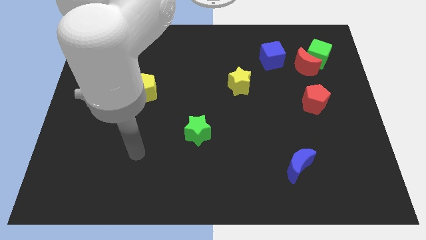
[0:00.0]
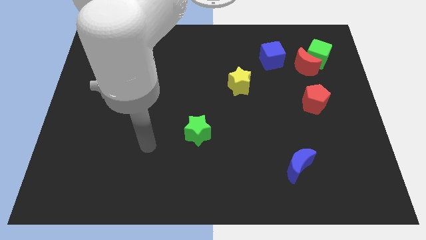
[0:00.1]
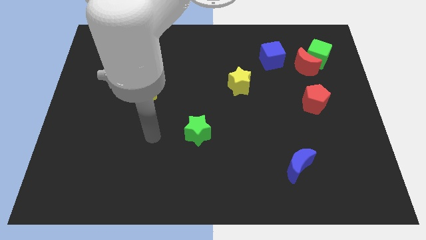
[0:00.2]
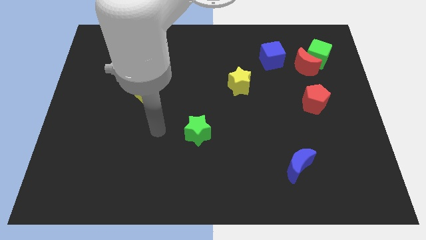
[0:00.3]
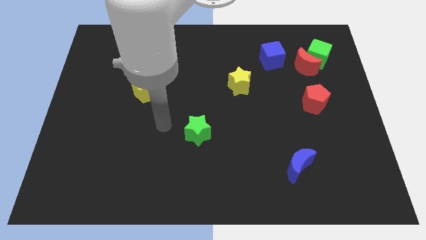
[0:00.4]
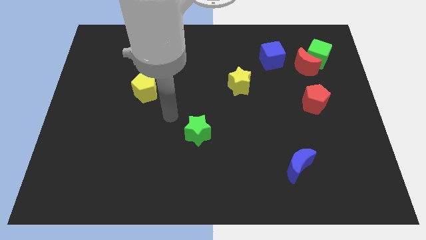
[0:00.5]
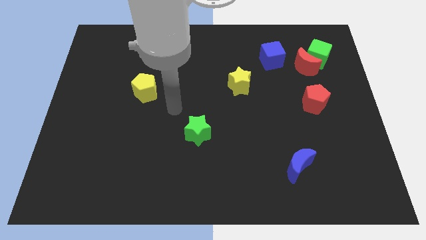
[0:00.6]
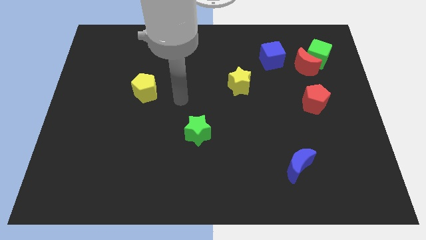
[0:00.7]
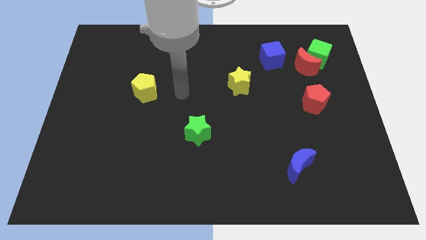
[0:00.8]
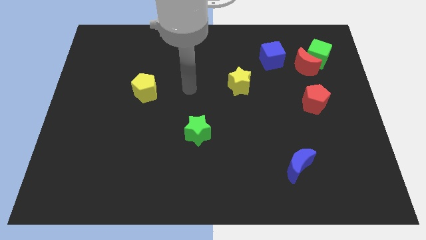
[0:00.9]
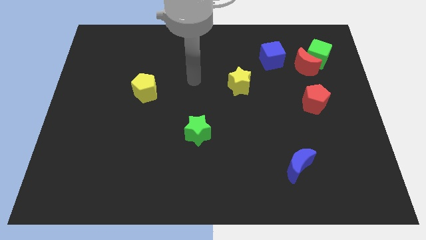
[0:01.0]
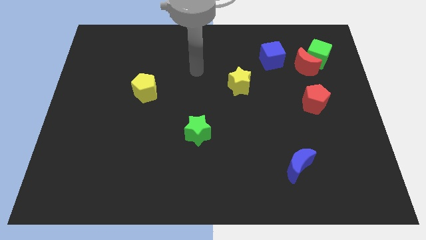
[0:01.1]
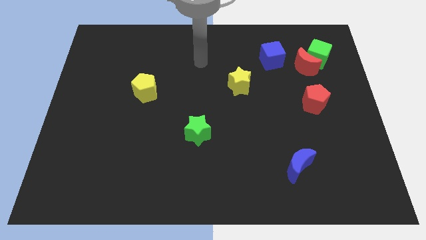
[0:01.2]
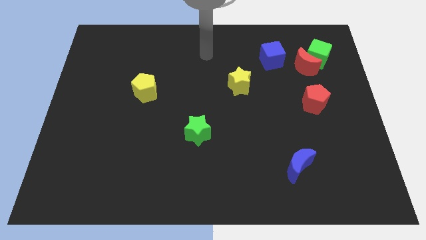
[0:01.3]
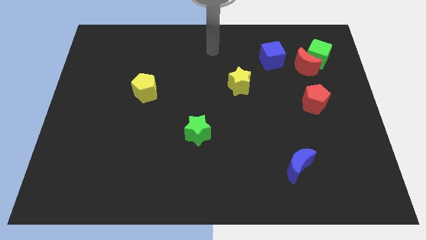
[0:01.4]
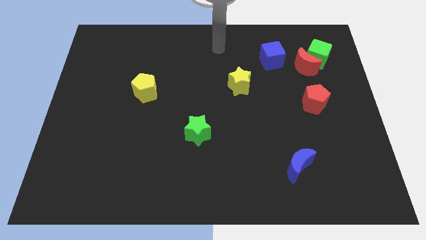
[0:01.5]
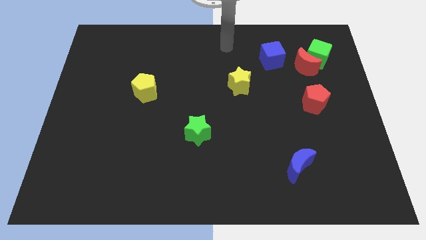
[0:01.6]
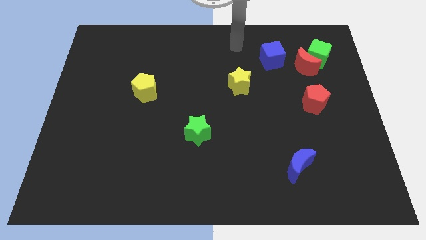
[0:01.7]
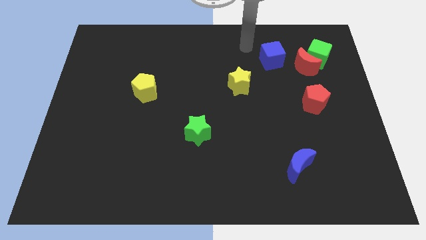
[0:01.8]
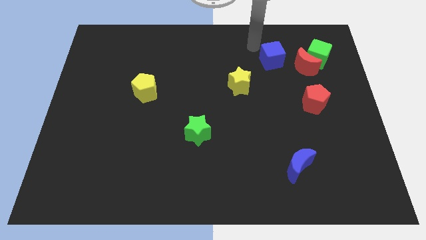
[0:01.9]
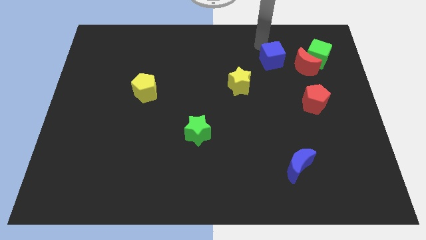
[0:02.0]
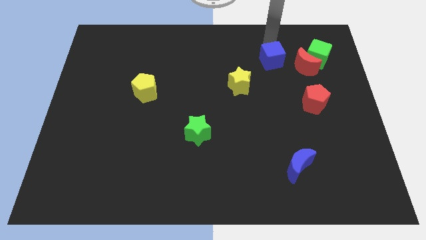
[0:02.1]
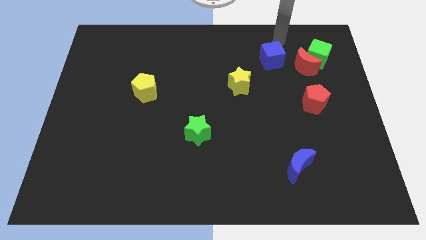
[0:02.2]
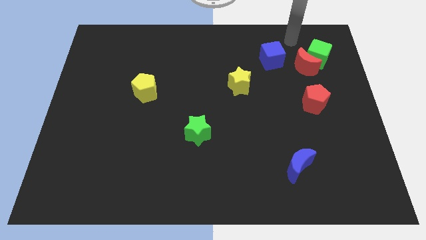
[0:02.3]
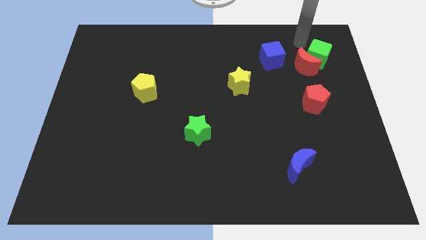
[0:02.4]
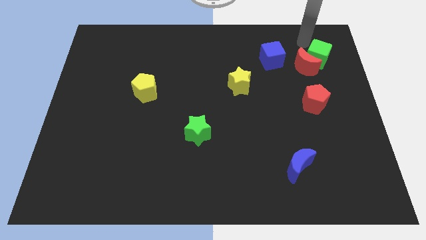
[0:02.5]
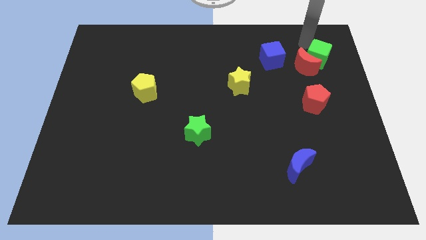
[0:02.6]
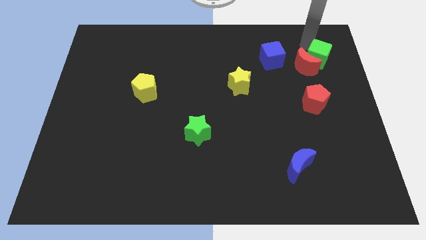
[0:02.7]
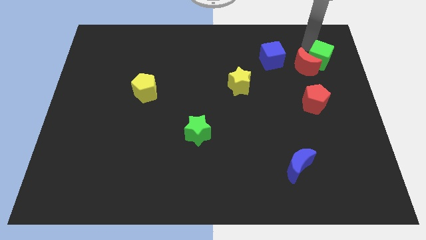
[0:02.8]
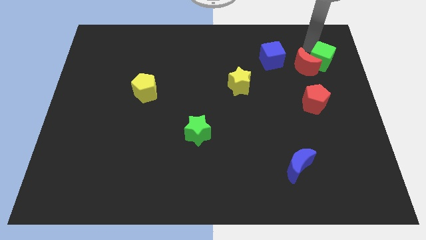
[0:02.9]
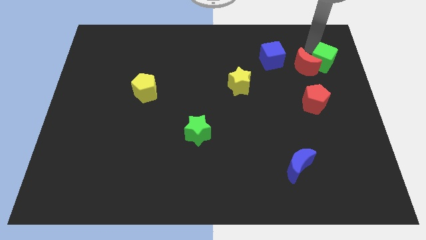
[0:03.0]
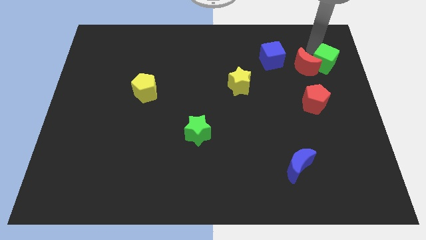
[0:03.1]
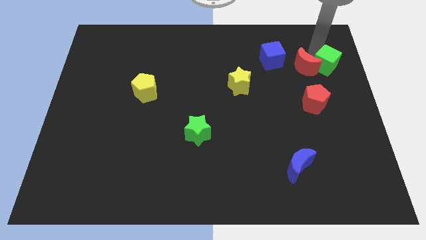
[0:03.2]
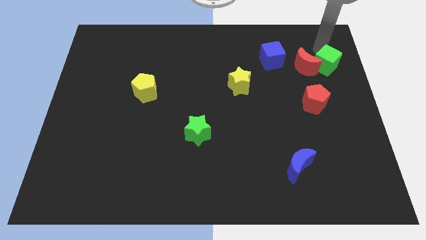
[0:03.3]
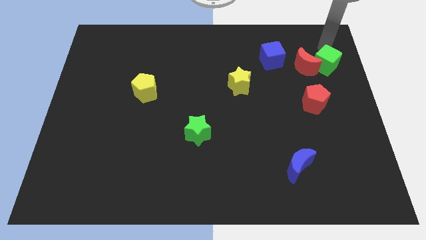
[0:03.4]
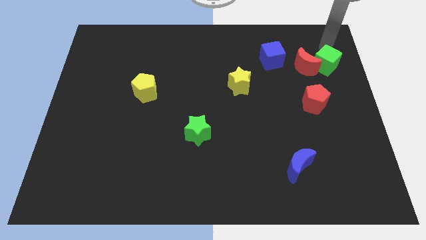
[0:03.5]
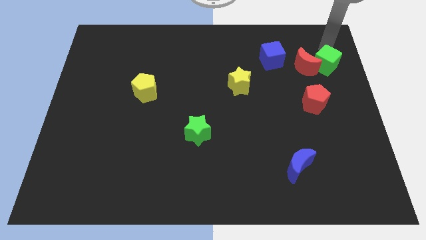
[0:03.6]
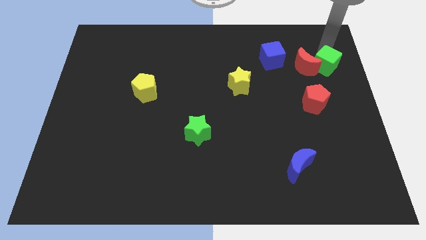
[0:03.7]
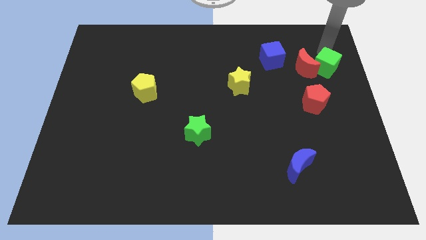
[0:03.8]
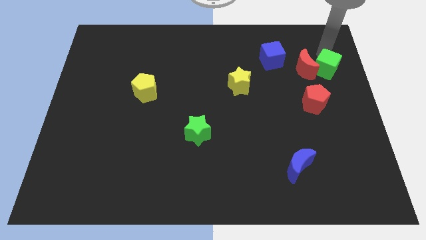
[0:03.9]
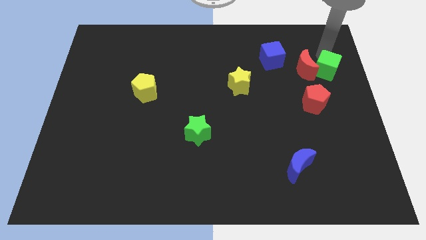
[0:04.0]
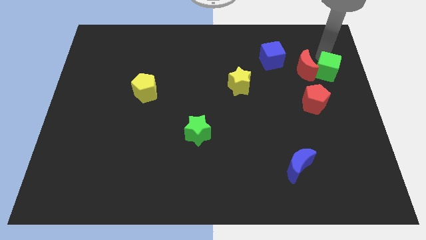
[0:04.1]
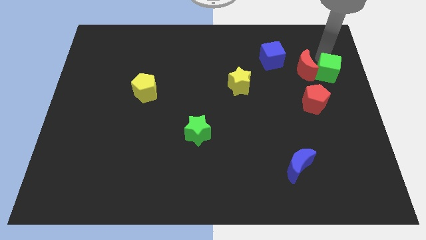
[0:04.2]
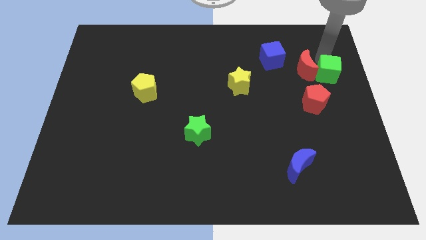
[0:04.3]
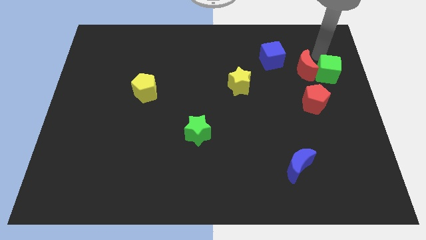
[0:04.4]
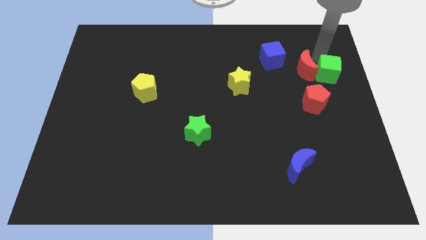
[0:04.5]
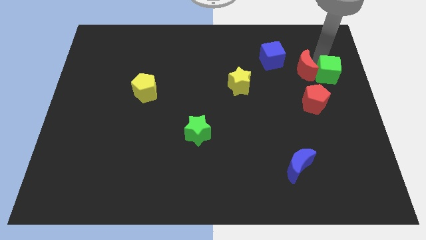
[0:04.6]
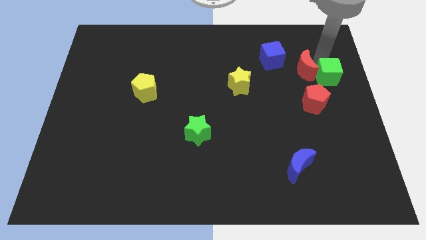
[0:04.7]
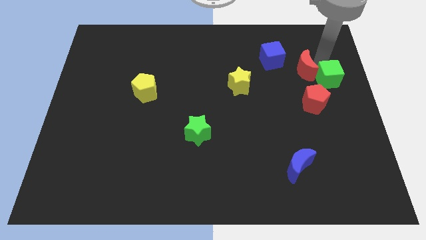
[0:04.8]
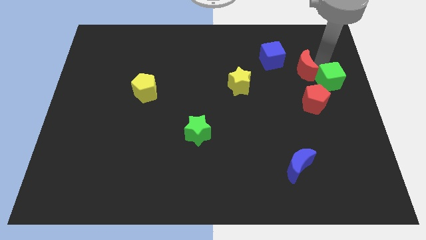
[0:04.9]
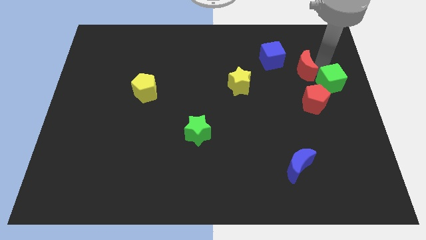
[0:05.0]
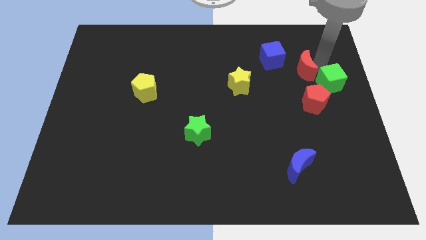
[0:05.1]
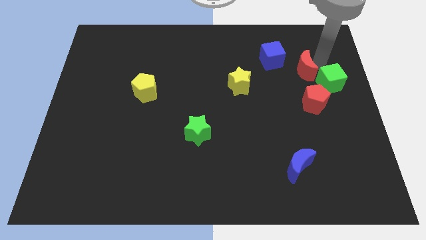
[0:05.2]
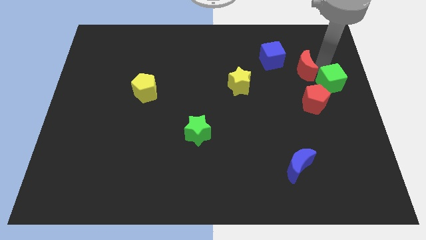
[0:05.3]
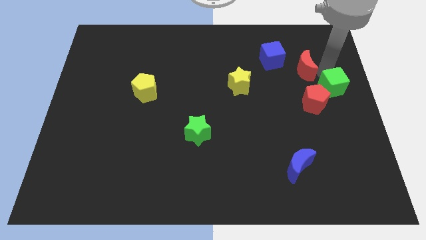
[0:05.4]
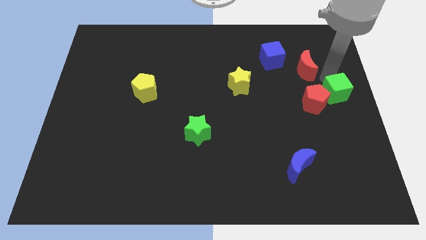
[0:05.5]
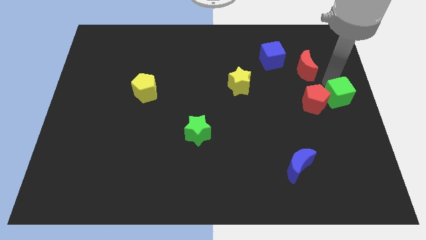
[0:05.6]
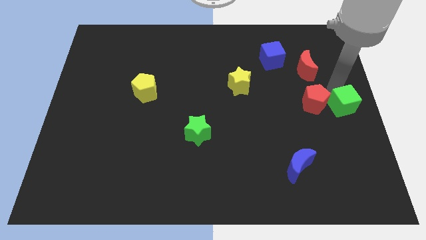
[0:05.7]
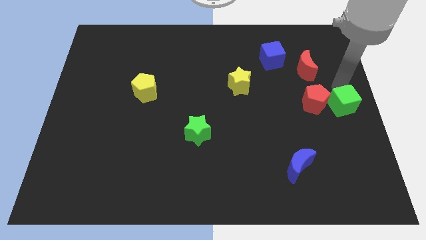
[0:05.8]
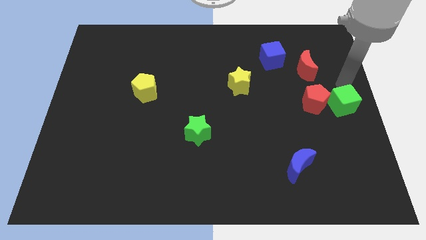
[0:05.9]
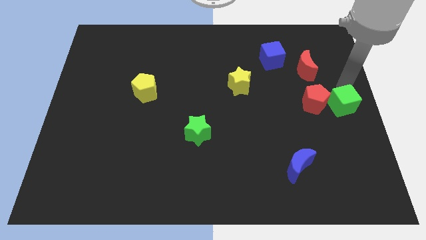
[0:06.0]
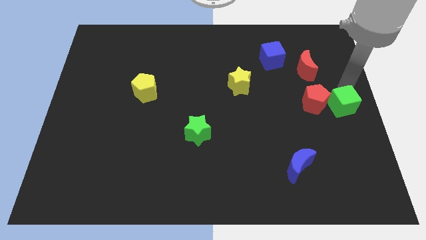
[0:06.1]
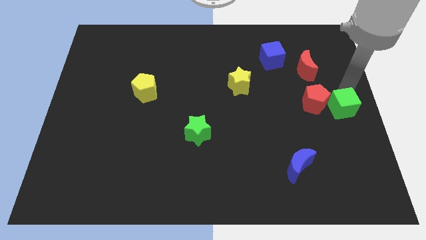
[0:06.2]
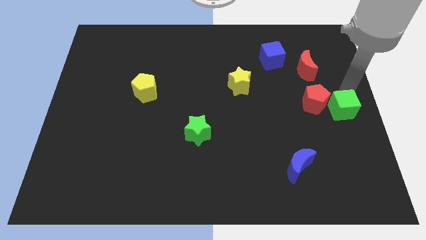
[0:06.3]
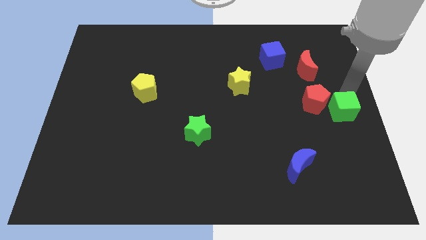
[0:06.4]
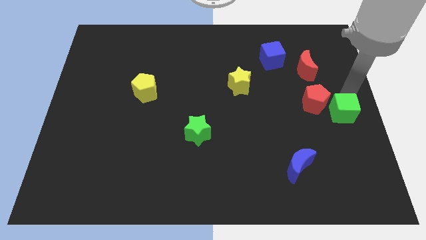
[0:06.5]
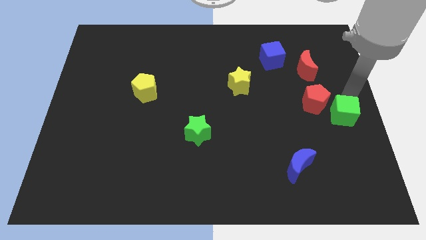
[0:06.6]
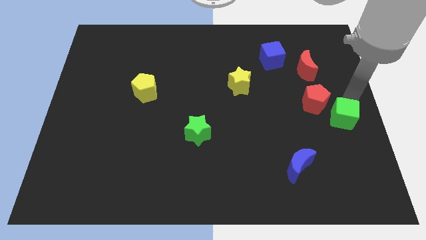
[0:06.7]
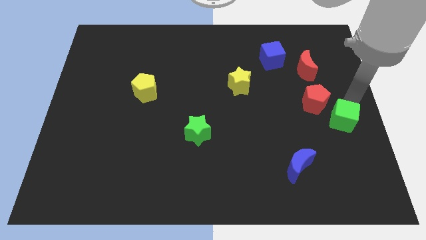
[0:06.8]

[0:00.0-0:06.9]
slide the green cube down

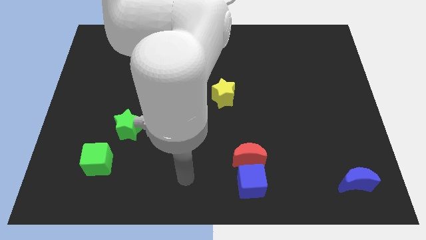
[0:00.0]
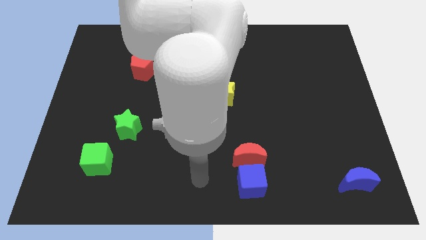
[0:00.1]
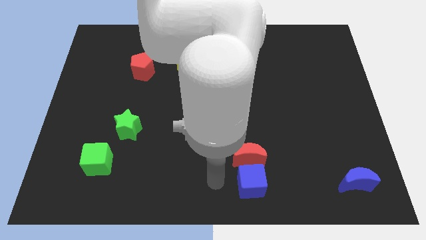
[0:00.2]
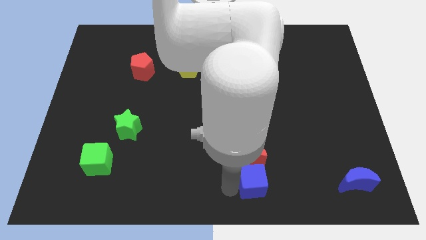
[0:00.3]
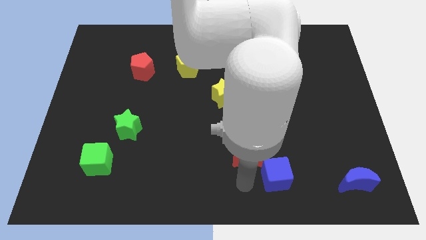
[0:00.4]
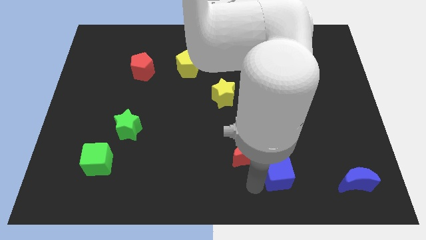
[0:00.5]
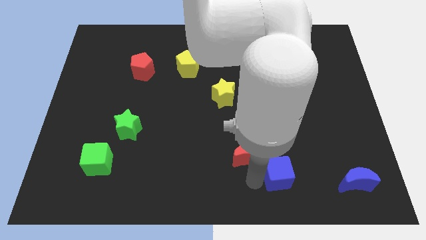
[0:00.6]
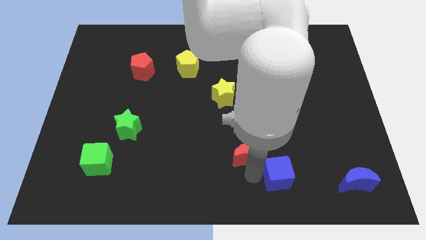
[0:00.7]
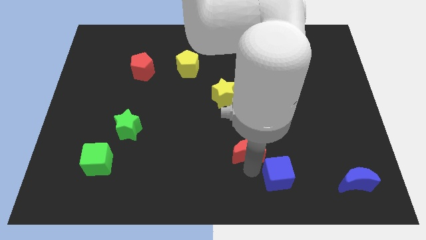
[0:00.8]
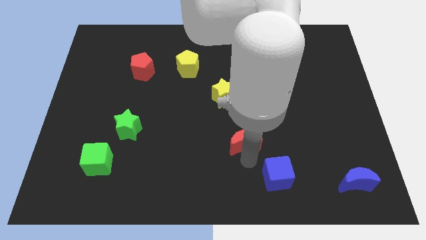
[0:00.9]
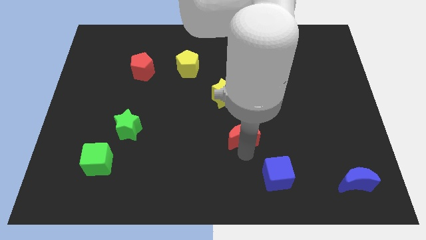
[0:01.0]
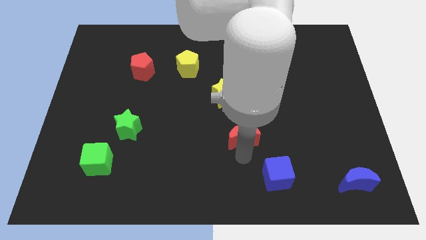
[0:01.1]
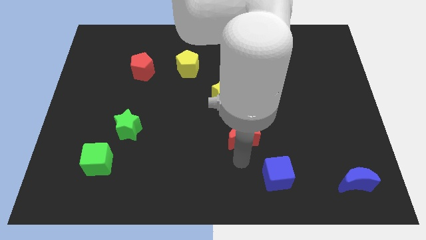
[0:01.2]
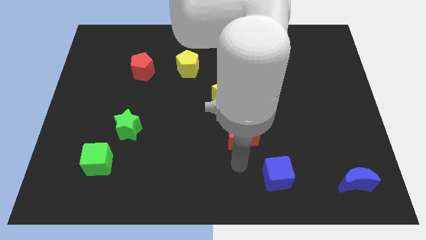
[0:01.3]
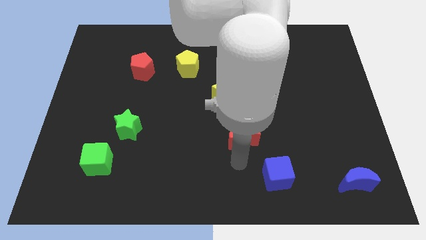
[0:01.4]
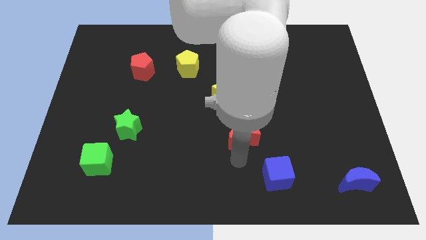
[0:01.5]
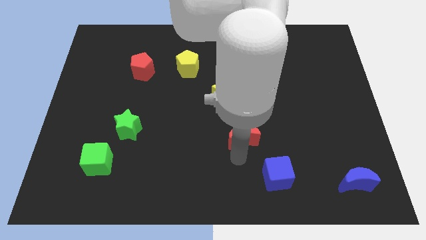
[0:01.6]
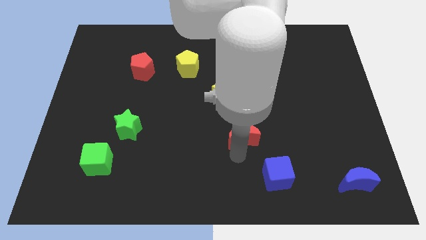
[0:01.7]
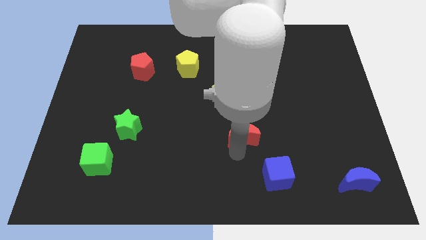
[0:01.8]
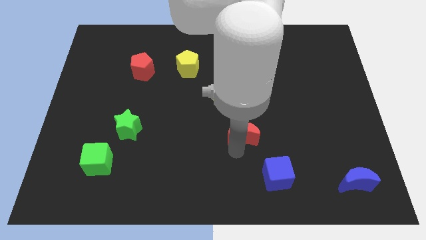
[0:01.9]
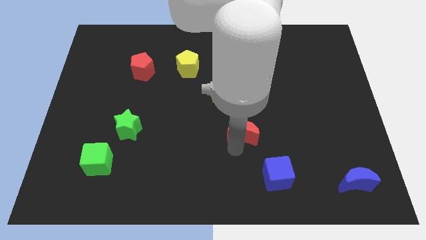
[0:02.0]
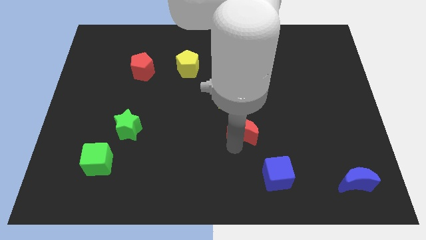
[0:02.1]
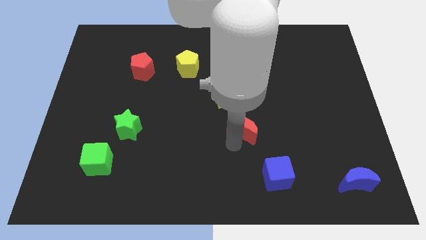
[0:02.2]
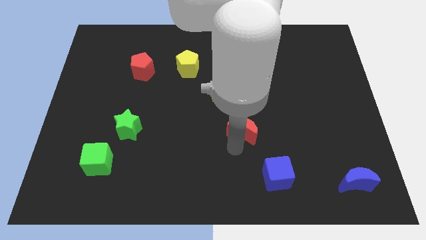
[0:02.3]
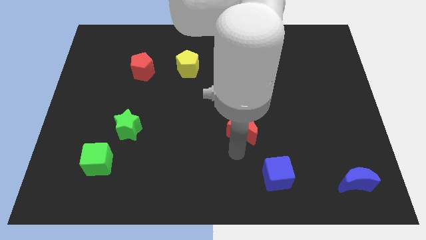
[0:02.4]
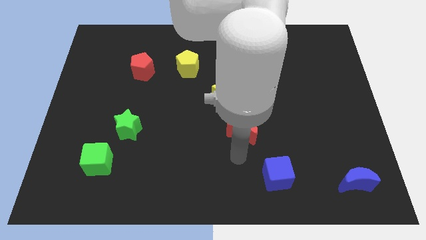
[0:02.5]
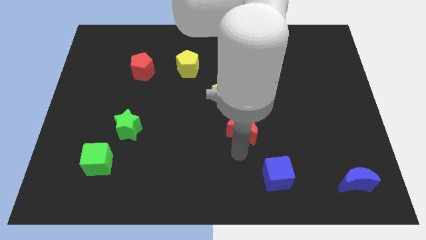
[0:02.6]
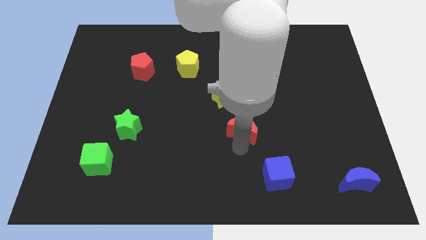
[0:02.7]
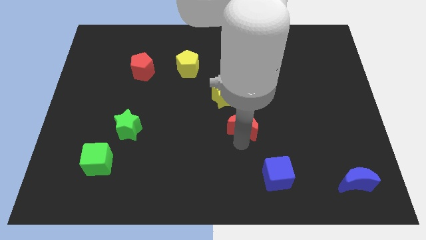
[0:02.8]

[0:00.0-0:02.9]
move the red moon up slightly
